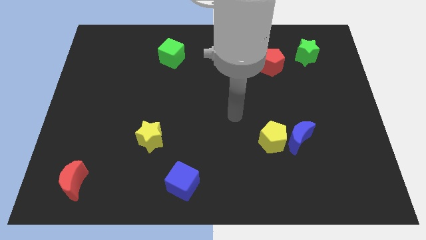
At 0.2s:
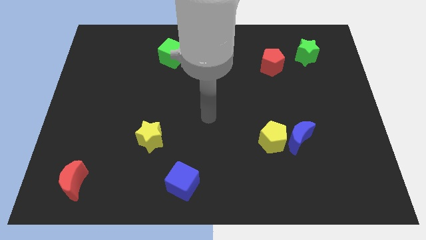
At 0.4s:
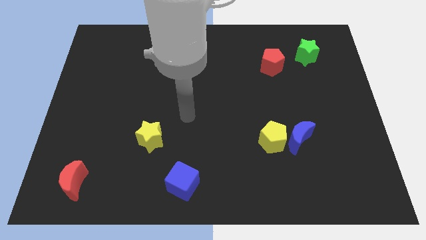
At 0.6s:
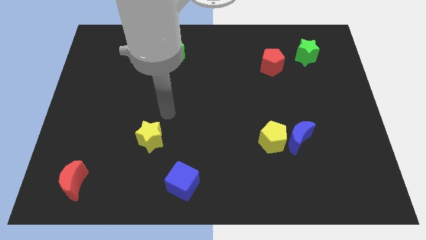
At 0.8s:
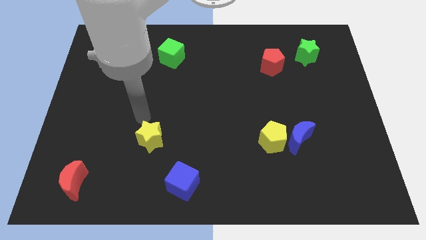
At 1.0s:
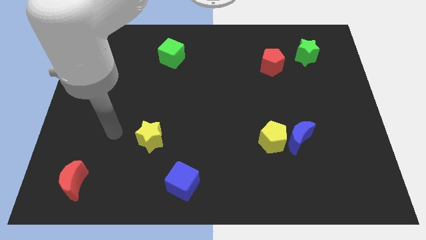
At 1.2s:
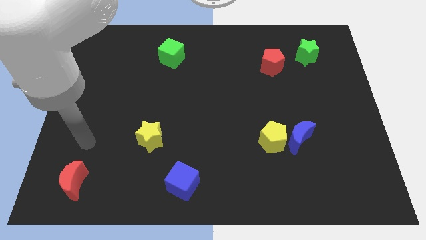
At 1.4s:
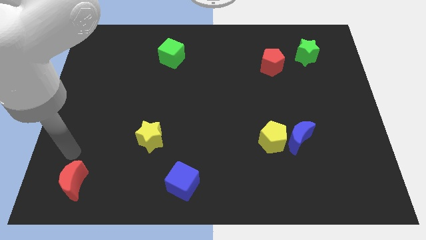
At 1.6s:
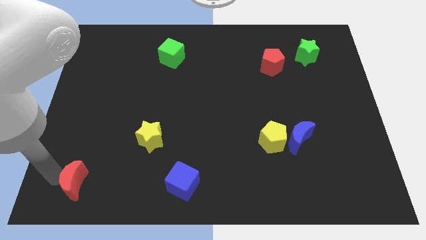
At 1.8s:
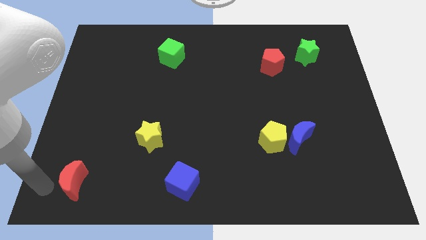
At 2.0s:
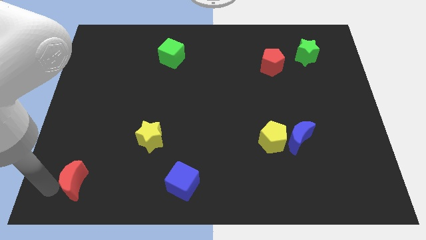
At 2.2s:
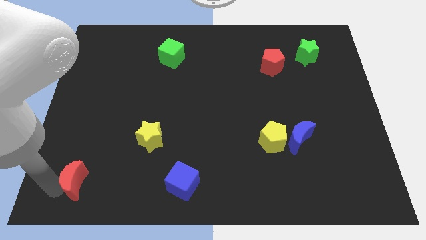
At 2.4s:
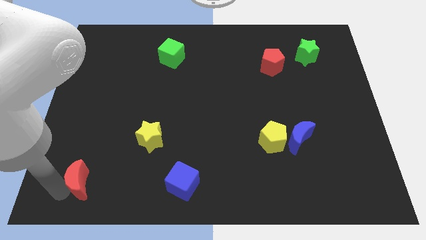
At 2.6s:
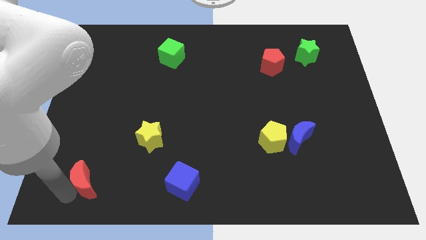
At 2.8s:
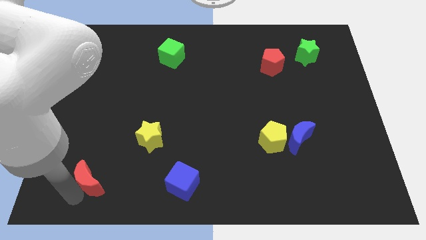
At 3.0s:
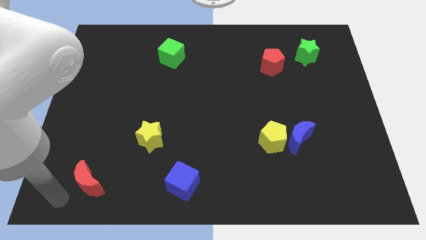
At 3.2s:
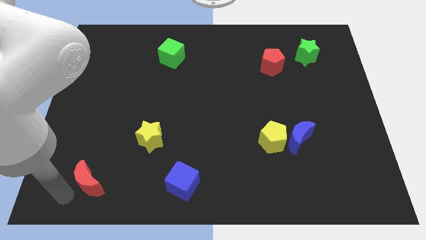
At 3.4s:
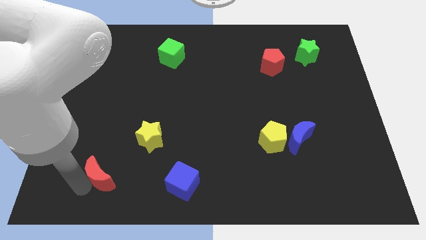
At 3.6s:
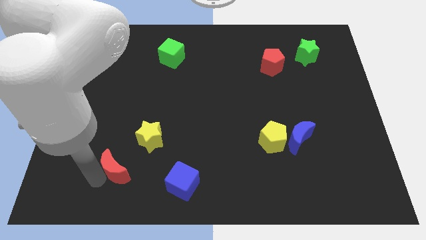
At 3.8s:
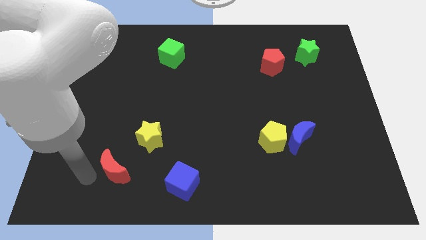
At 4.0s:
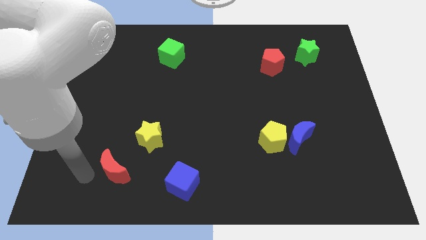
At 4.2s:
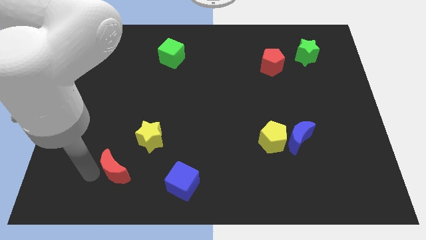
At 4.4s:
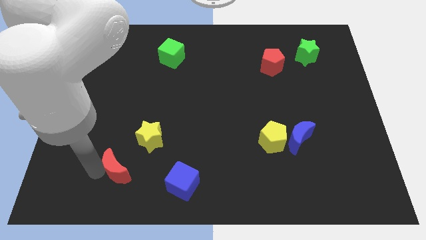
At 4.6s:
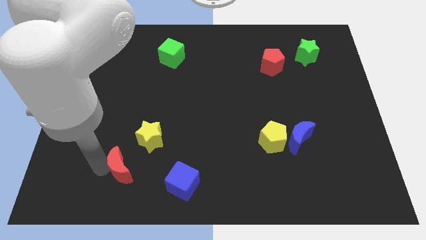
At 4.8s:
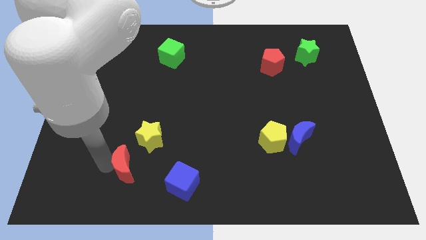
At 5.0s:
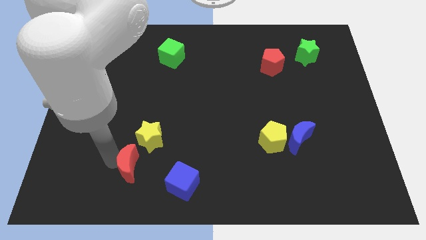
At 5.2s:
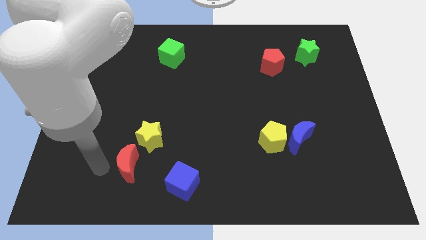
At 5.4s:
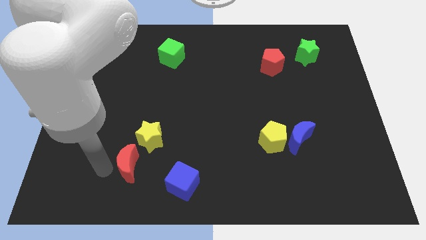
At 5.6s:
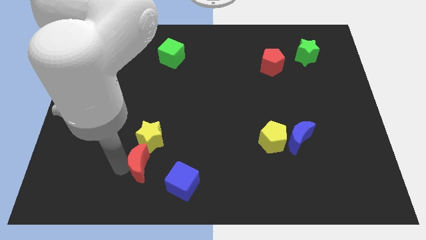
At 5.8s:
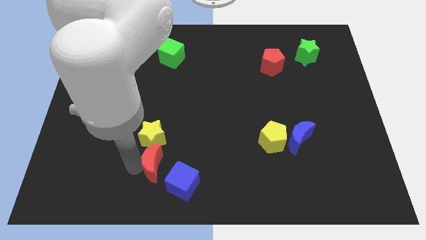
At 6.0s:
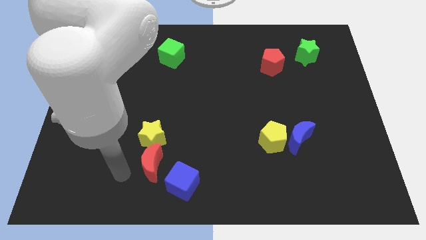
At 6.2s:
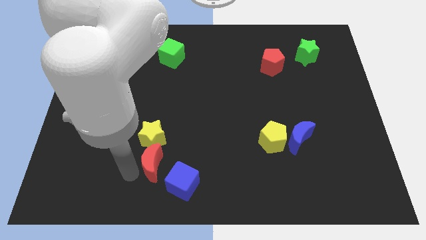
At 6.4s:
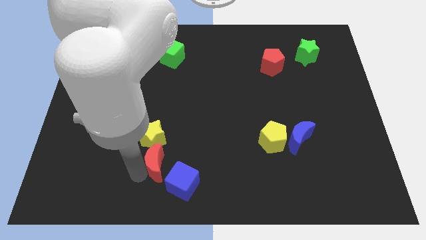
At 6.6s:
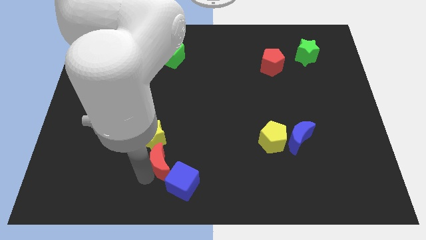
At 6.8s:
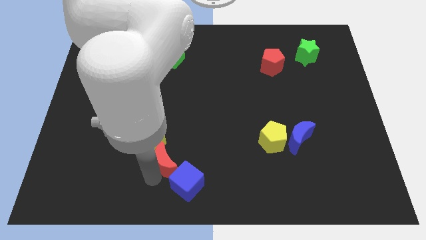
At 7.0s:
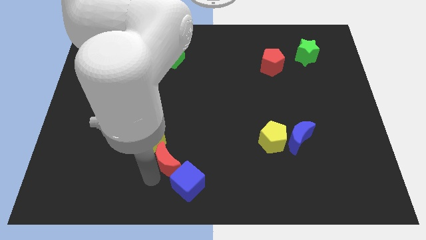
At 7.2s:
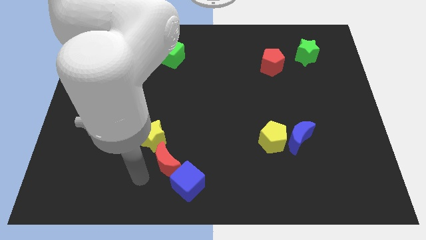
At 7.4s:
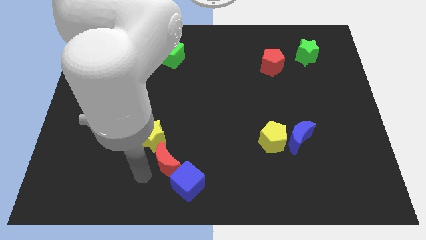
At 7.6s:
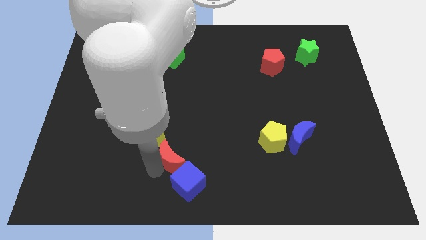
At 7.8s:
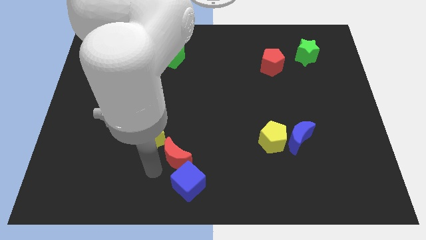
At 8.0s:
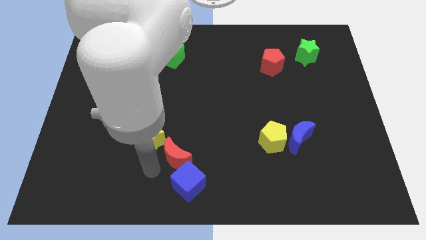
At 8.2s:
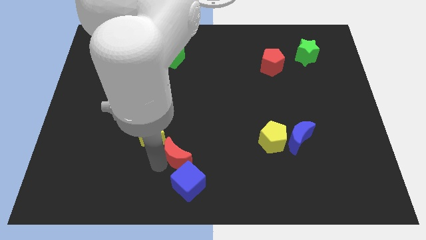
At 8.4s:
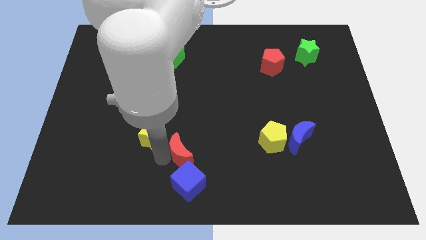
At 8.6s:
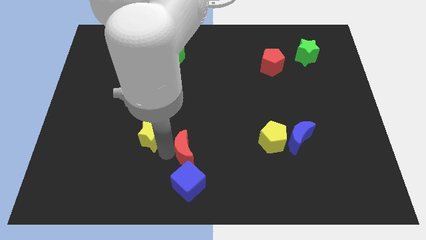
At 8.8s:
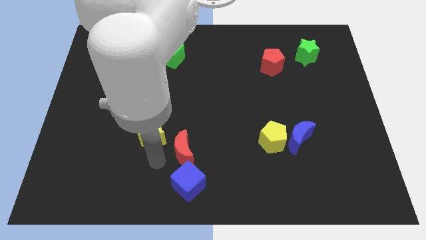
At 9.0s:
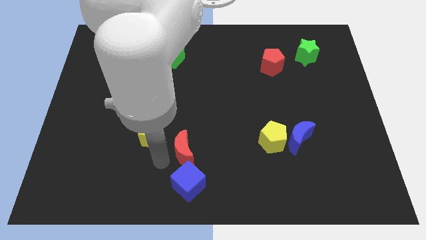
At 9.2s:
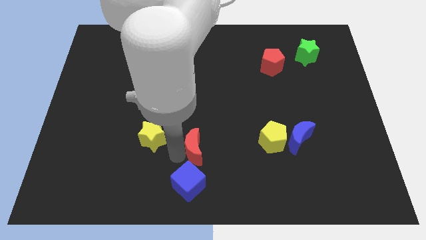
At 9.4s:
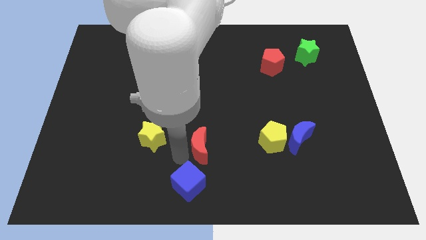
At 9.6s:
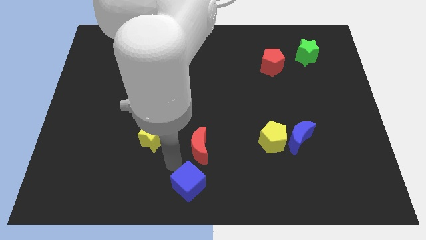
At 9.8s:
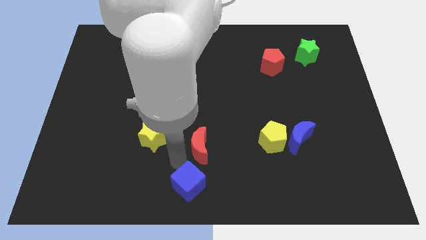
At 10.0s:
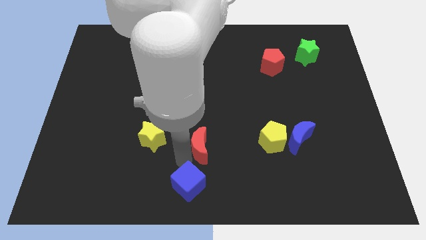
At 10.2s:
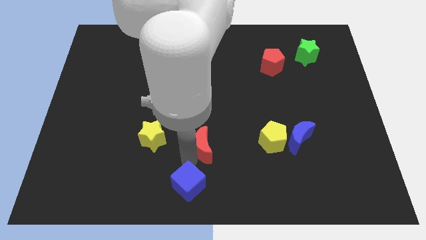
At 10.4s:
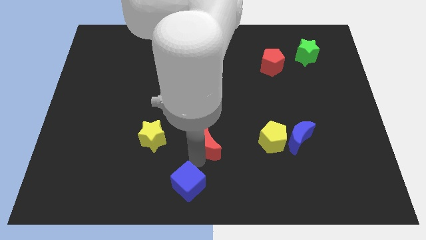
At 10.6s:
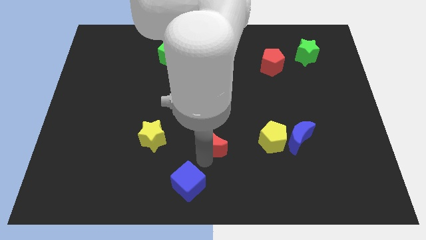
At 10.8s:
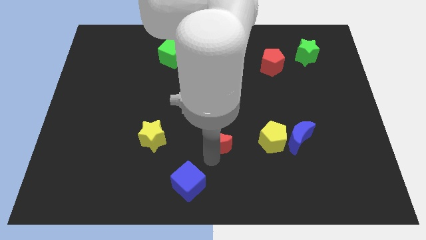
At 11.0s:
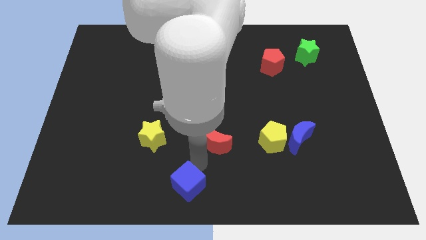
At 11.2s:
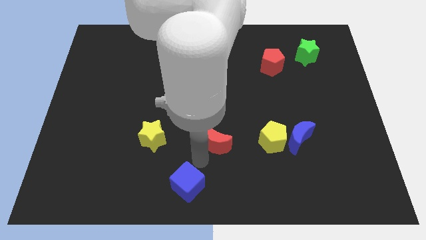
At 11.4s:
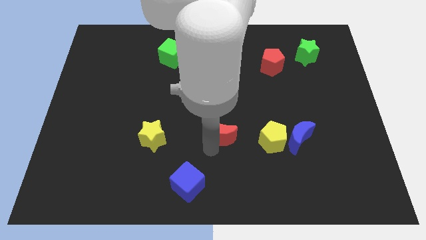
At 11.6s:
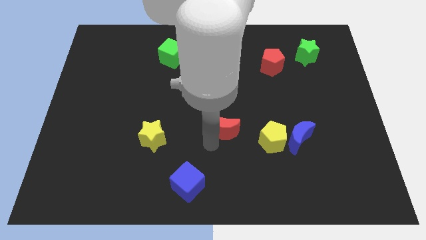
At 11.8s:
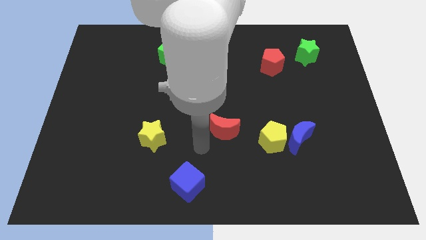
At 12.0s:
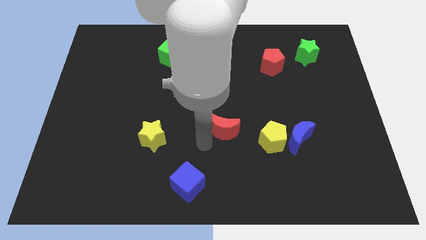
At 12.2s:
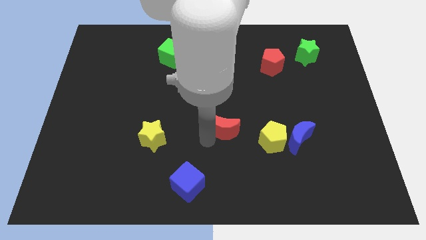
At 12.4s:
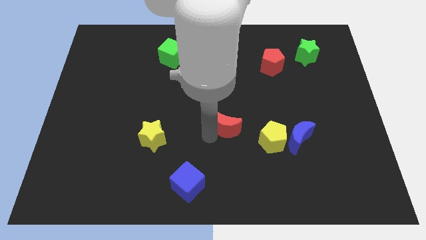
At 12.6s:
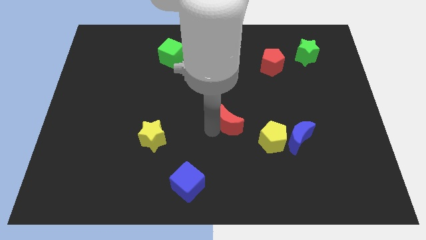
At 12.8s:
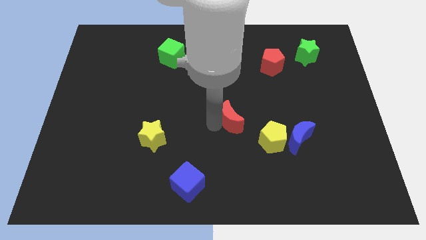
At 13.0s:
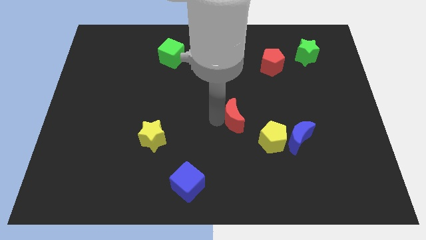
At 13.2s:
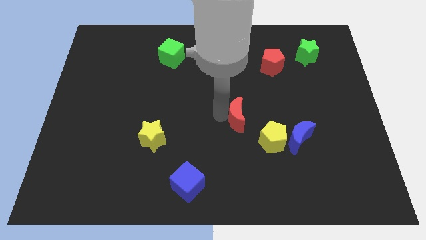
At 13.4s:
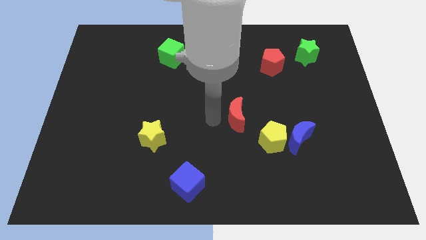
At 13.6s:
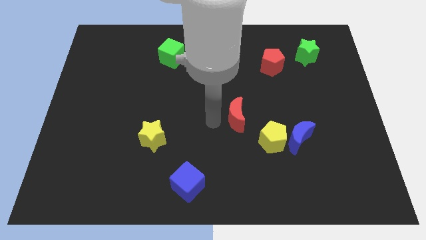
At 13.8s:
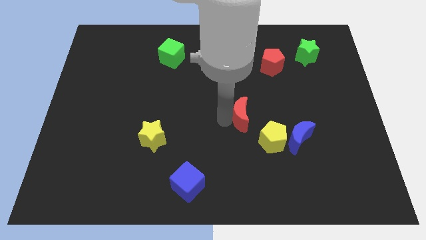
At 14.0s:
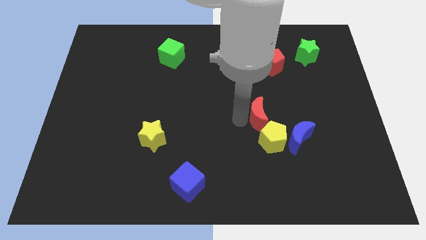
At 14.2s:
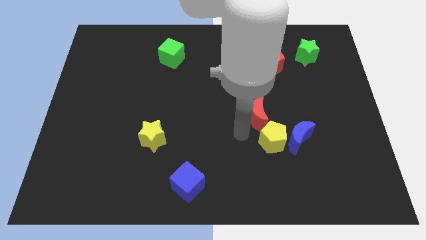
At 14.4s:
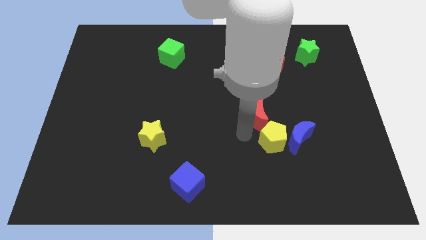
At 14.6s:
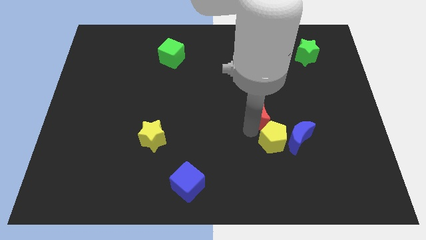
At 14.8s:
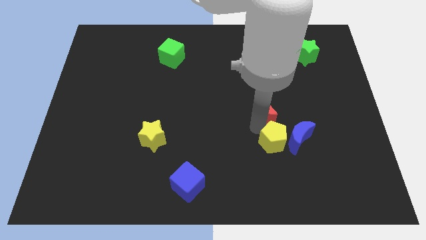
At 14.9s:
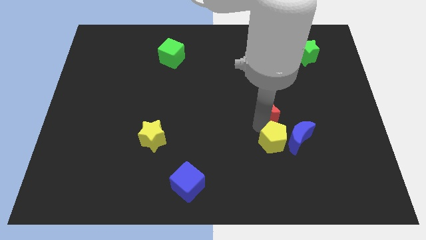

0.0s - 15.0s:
move the red moon to the bottom of the red pentagon

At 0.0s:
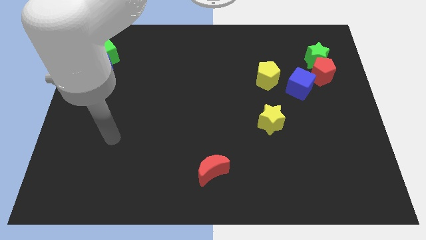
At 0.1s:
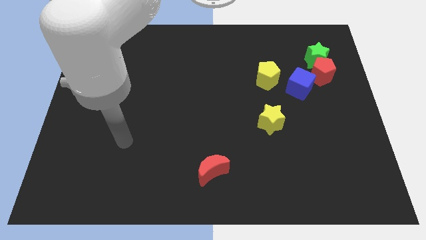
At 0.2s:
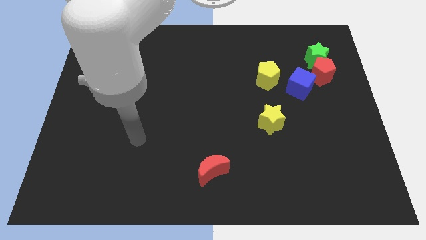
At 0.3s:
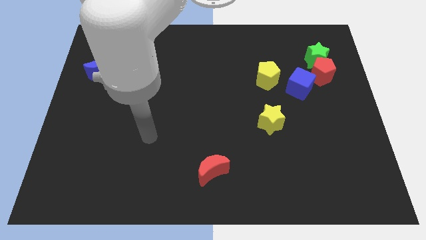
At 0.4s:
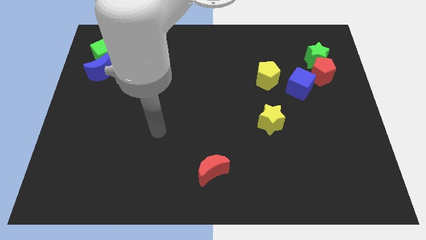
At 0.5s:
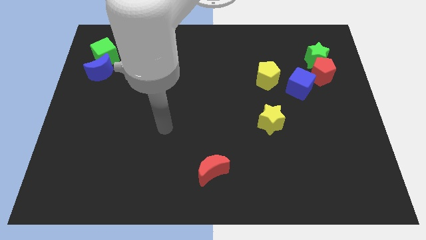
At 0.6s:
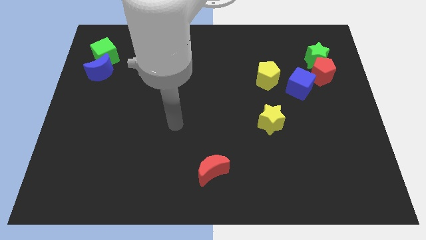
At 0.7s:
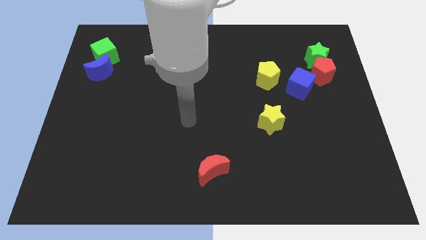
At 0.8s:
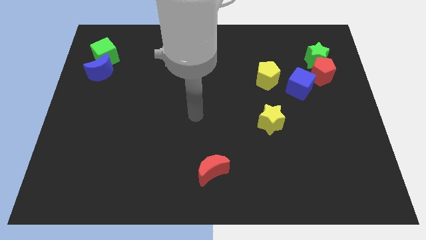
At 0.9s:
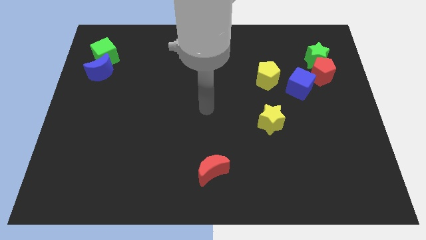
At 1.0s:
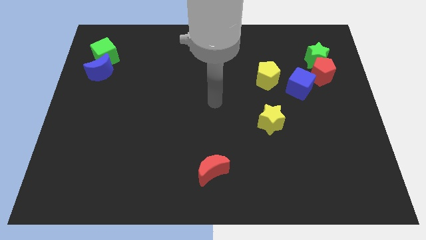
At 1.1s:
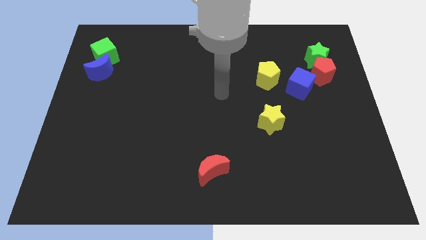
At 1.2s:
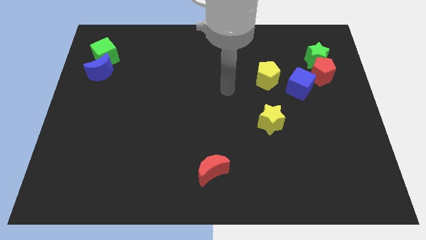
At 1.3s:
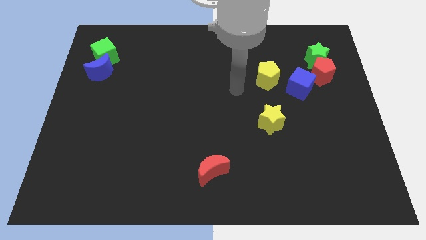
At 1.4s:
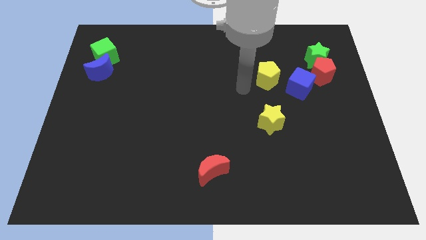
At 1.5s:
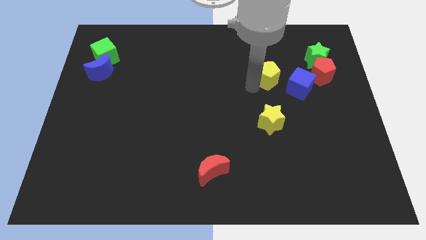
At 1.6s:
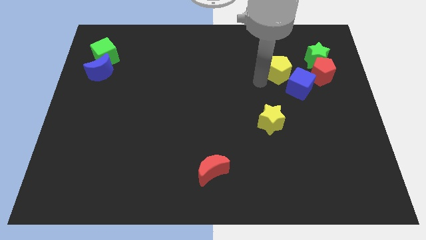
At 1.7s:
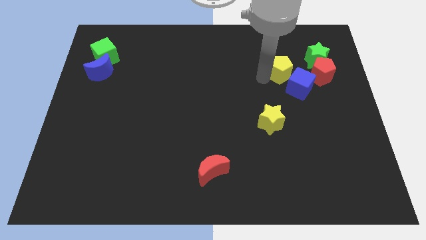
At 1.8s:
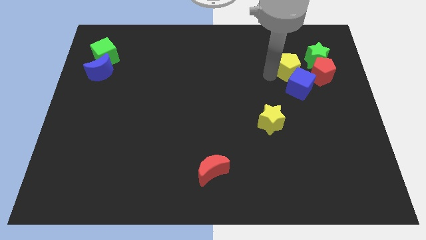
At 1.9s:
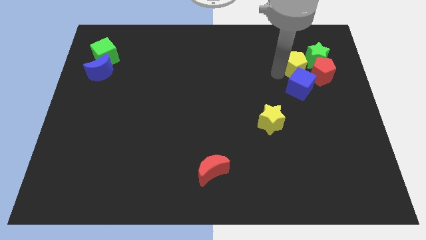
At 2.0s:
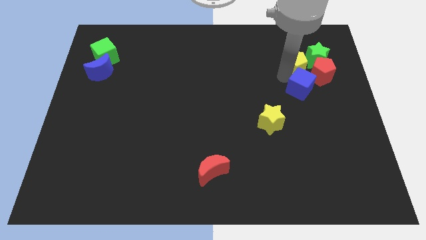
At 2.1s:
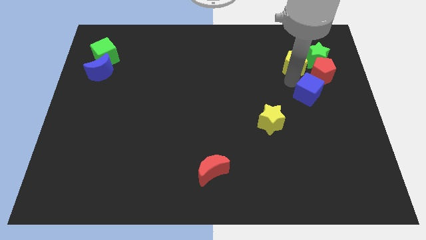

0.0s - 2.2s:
push the blue cube to the bottom side of the red pentagon
